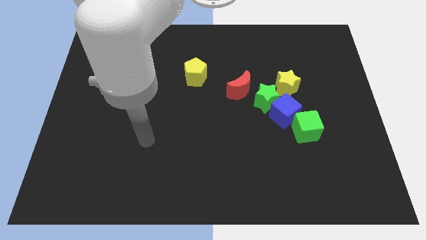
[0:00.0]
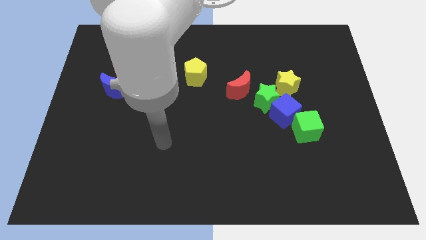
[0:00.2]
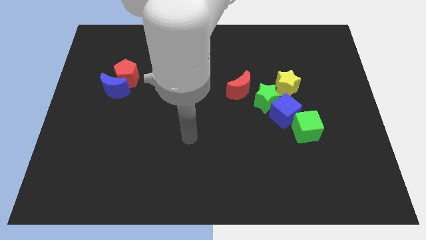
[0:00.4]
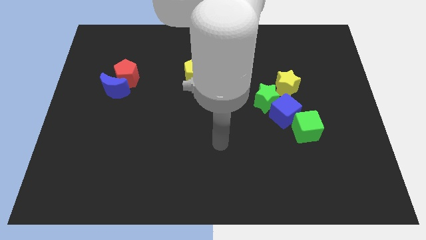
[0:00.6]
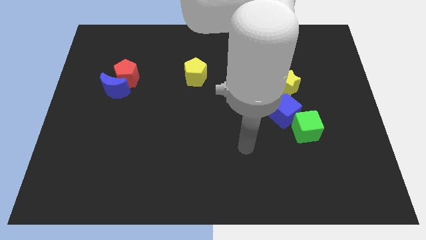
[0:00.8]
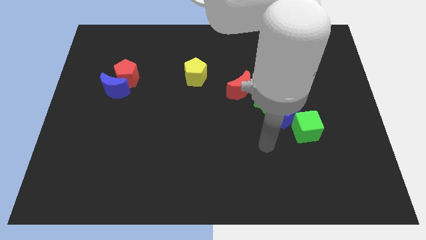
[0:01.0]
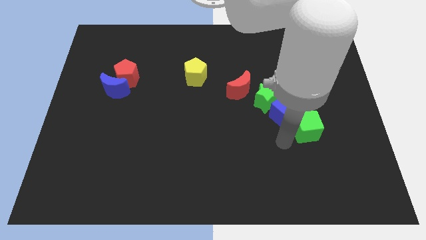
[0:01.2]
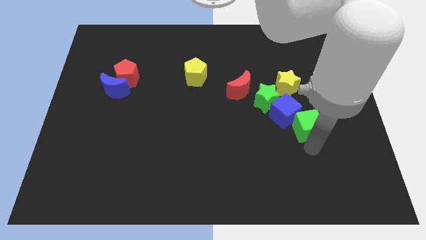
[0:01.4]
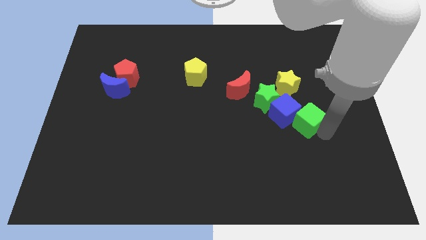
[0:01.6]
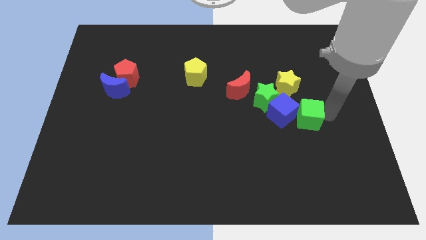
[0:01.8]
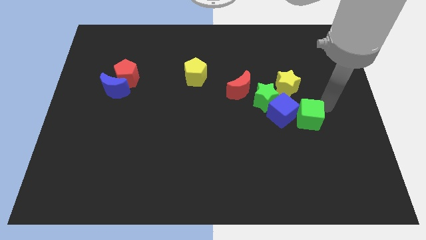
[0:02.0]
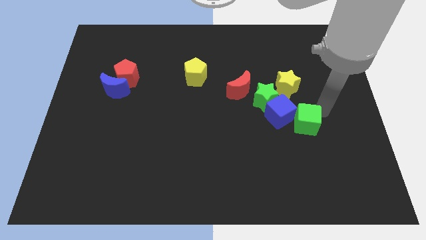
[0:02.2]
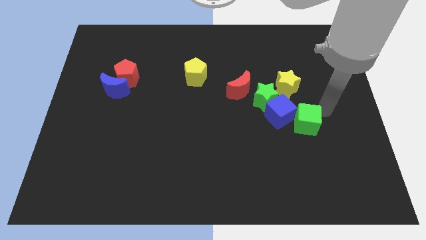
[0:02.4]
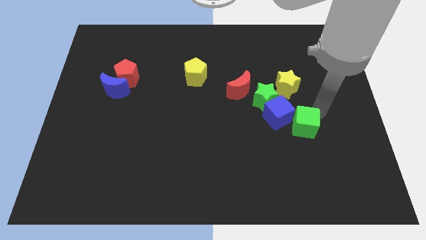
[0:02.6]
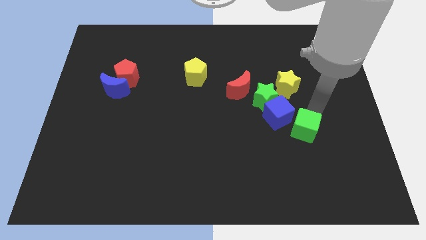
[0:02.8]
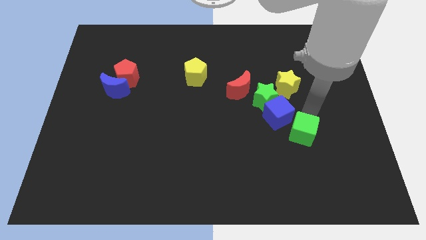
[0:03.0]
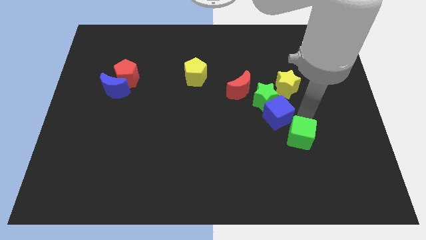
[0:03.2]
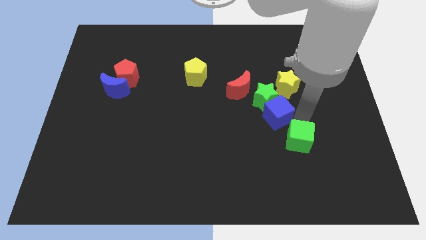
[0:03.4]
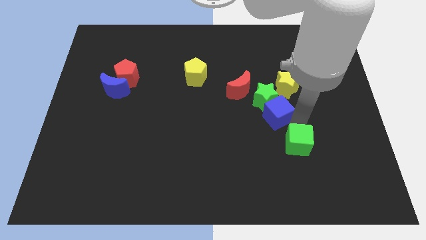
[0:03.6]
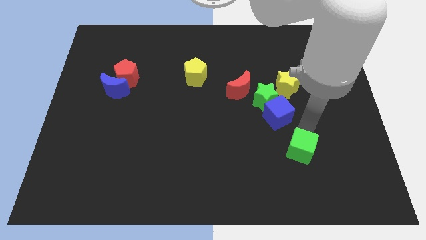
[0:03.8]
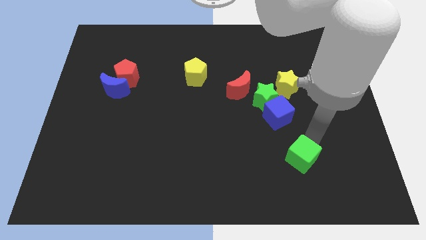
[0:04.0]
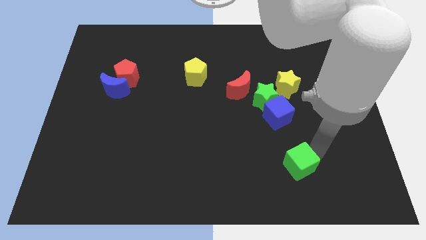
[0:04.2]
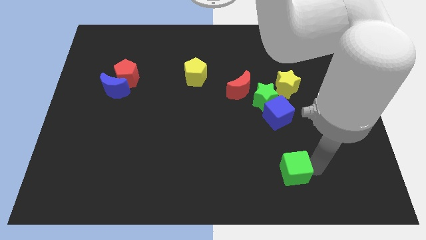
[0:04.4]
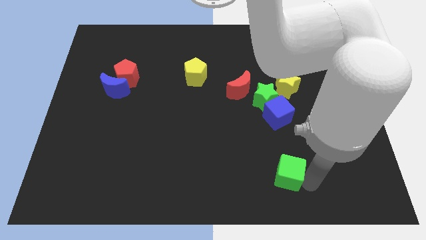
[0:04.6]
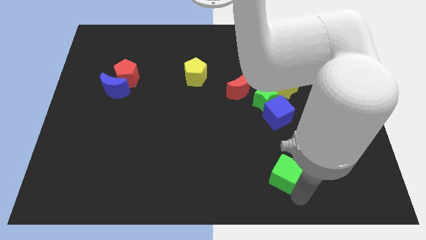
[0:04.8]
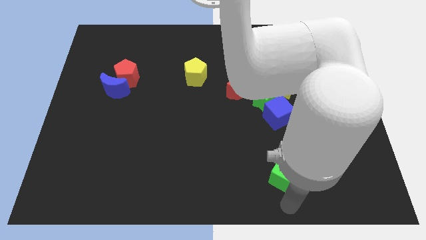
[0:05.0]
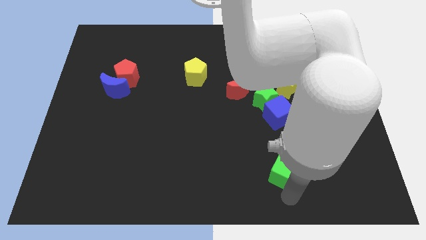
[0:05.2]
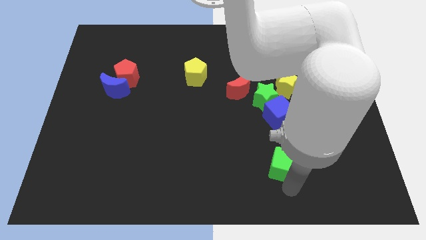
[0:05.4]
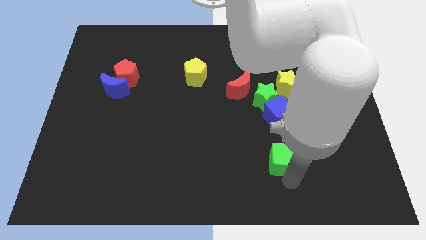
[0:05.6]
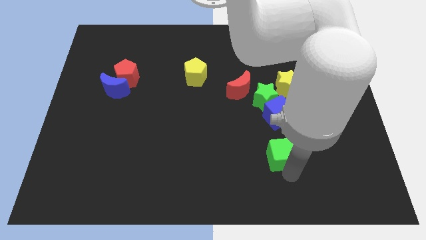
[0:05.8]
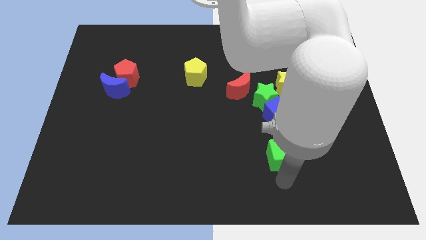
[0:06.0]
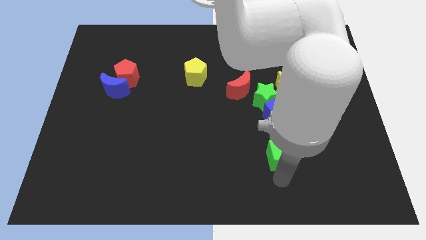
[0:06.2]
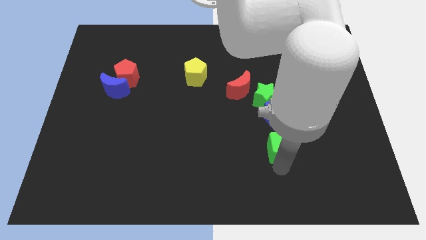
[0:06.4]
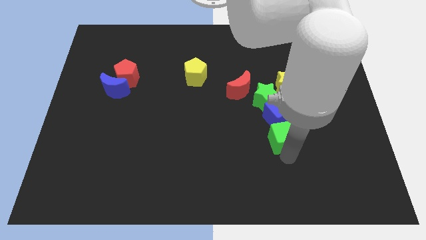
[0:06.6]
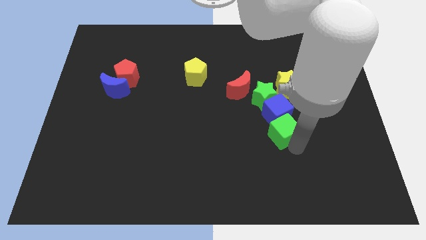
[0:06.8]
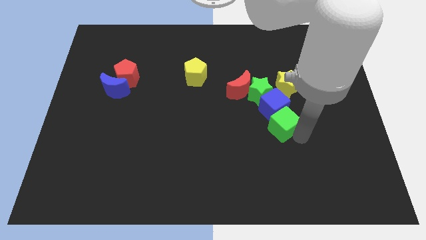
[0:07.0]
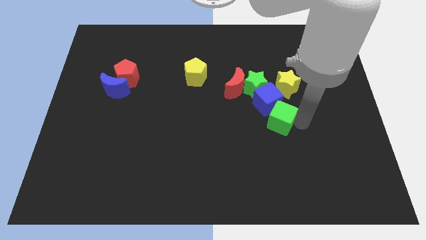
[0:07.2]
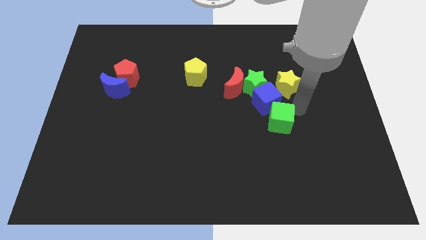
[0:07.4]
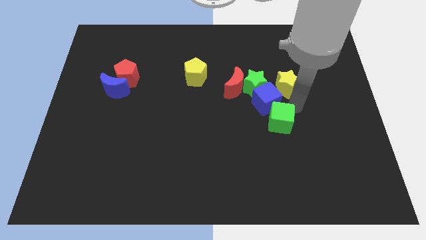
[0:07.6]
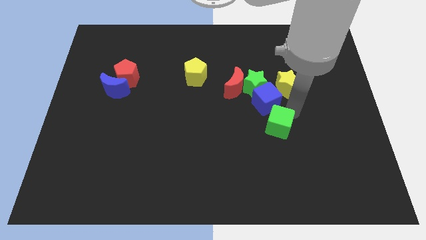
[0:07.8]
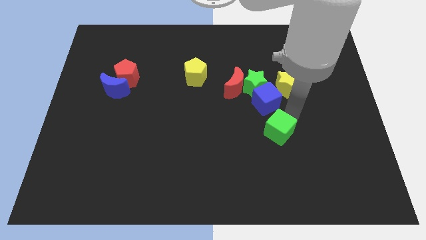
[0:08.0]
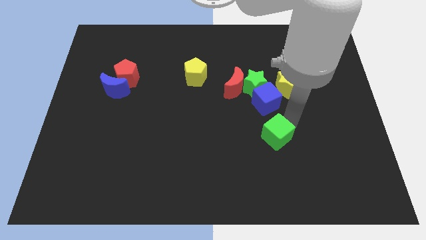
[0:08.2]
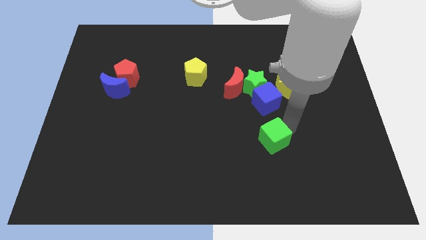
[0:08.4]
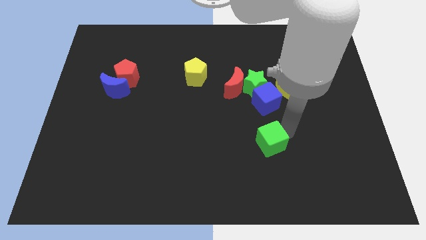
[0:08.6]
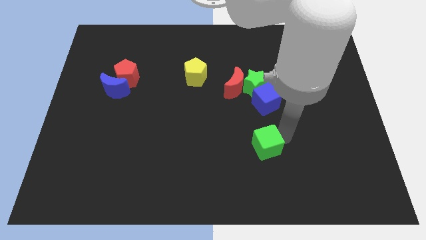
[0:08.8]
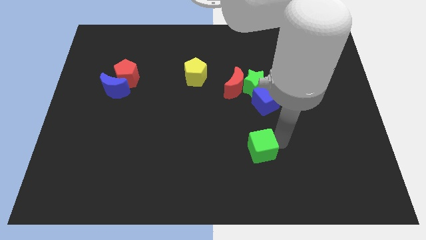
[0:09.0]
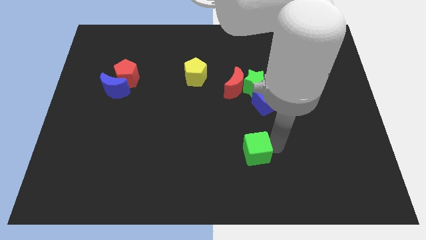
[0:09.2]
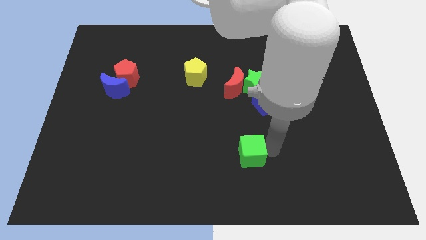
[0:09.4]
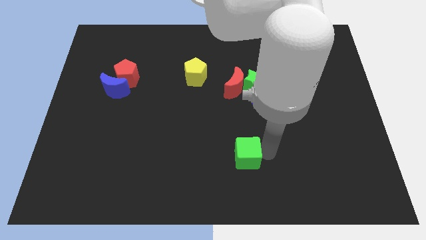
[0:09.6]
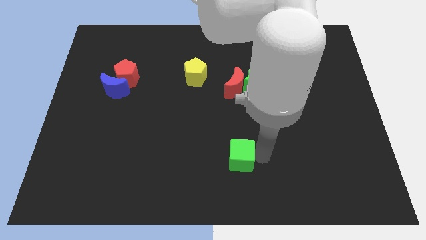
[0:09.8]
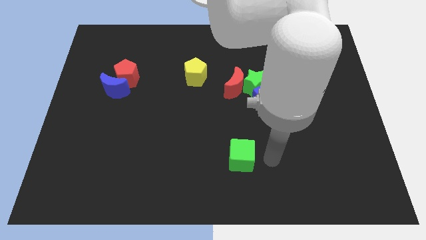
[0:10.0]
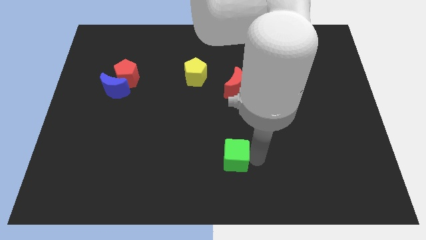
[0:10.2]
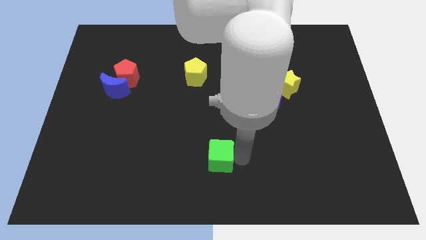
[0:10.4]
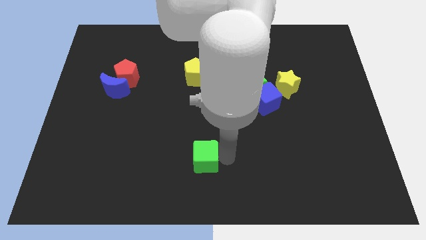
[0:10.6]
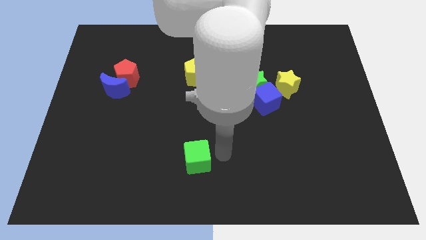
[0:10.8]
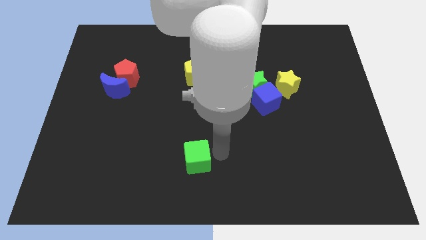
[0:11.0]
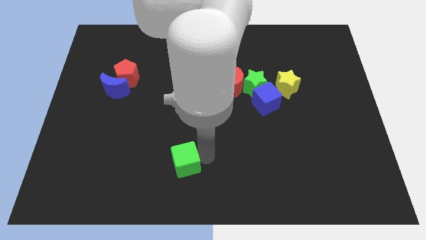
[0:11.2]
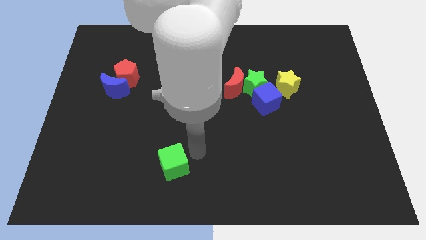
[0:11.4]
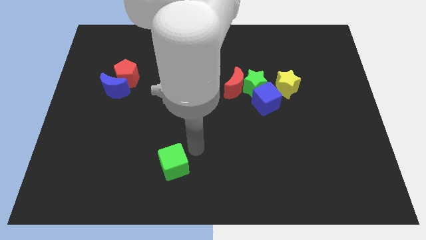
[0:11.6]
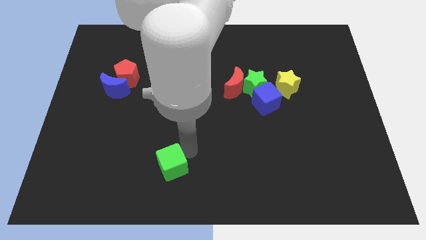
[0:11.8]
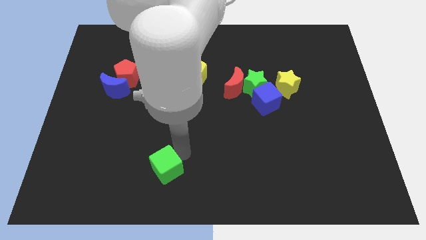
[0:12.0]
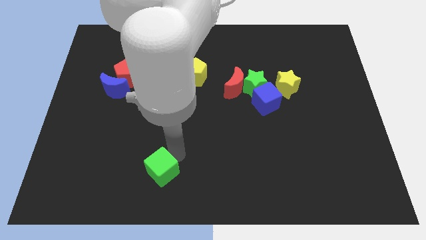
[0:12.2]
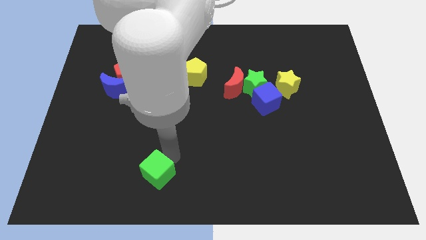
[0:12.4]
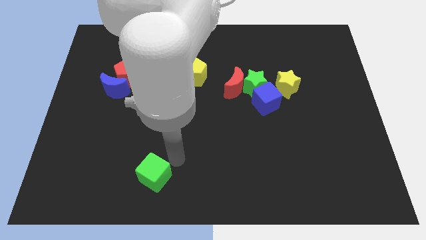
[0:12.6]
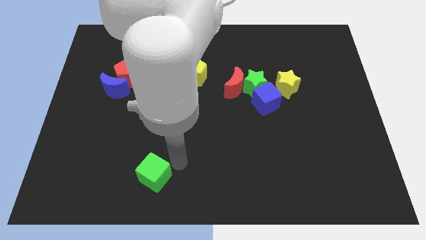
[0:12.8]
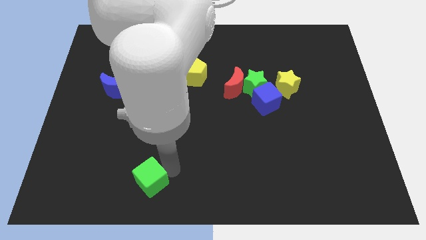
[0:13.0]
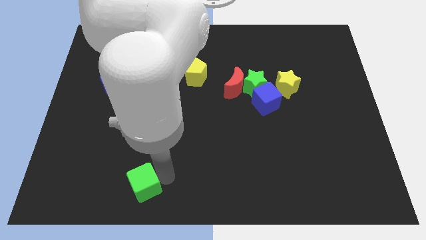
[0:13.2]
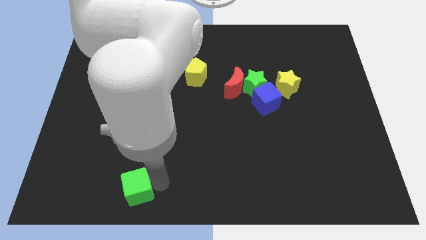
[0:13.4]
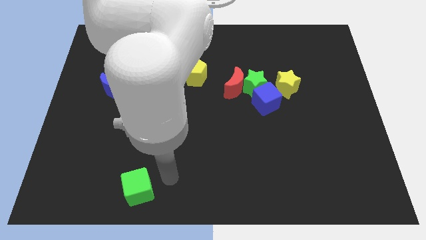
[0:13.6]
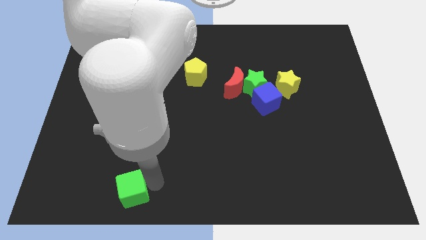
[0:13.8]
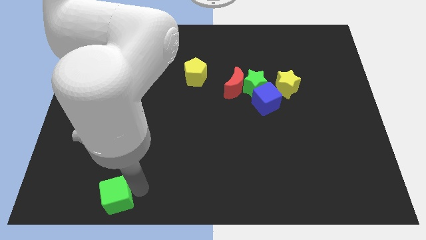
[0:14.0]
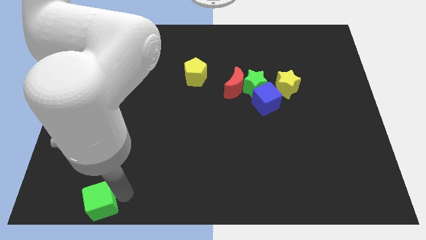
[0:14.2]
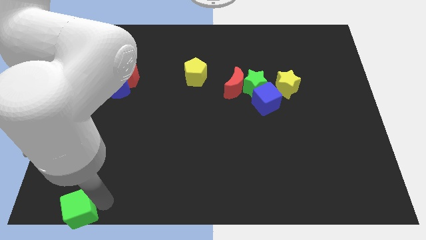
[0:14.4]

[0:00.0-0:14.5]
move the green cube to the bottom left corner
